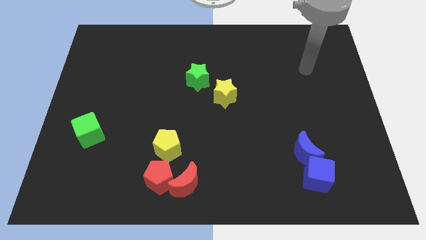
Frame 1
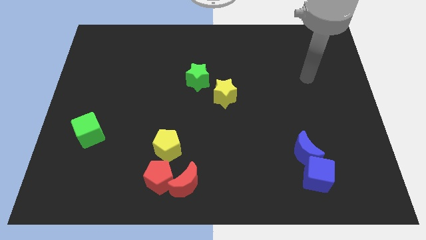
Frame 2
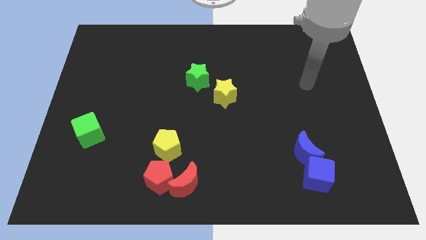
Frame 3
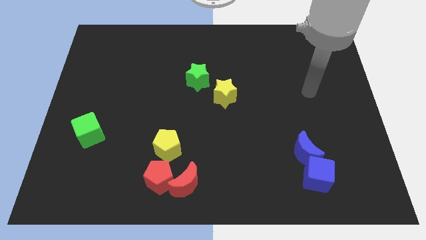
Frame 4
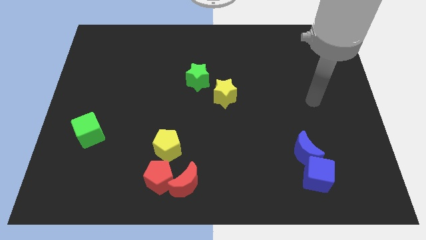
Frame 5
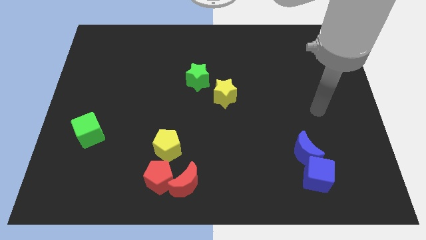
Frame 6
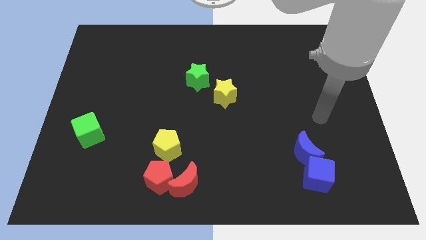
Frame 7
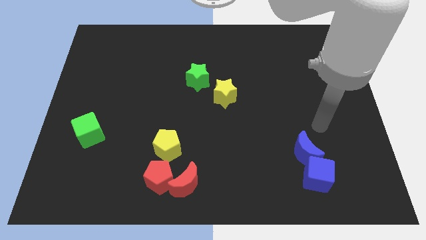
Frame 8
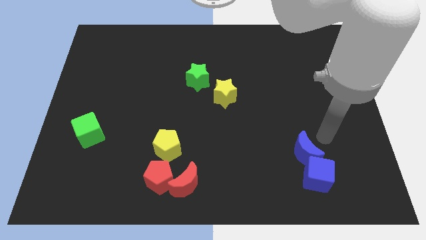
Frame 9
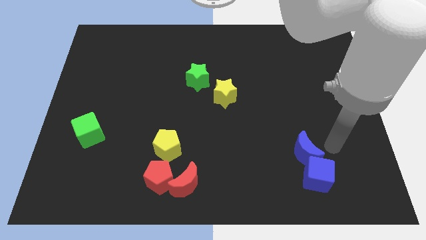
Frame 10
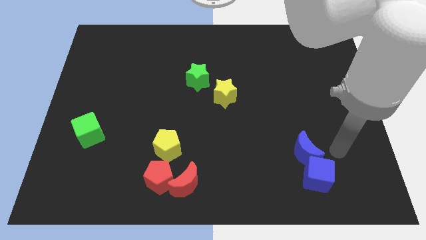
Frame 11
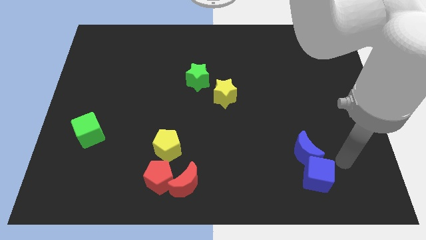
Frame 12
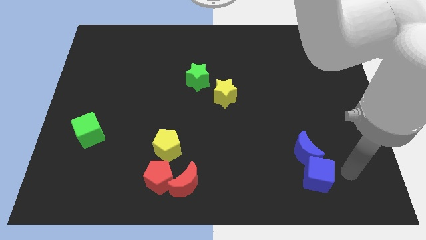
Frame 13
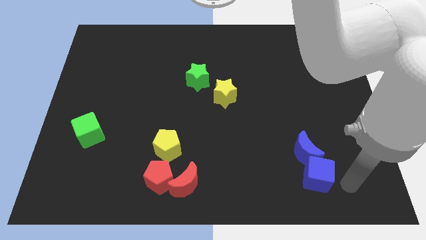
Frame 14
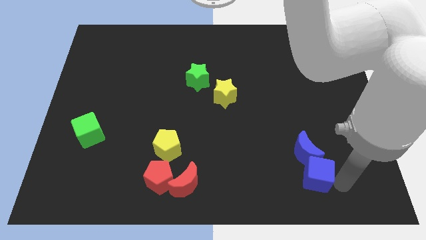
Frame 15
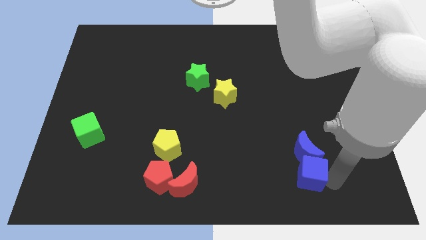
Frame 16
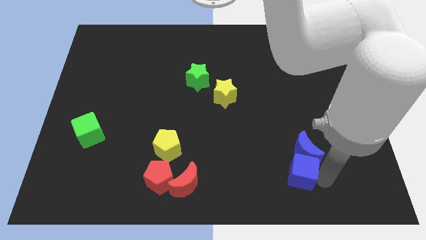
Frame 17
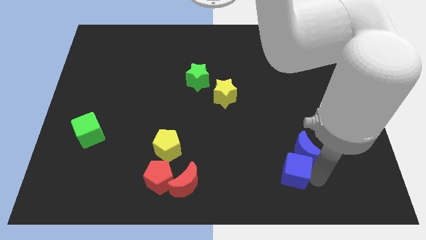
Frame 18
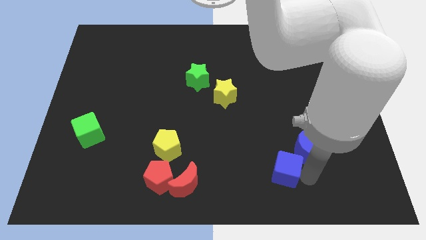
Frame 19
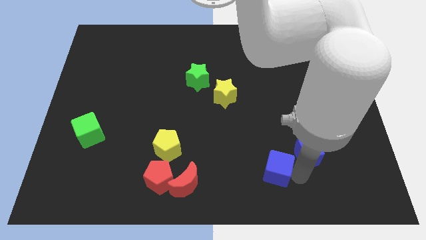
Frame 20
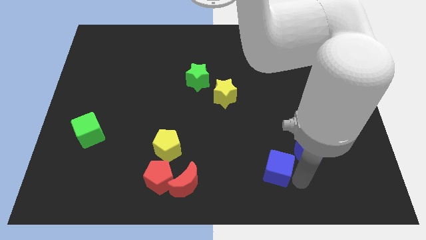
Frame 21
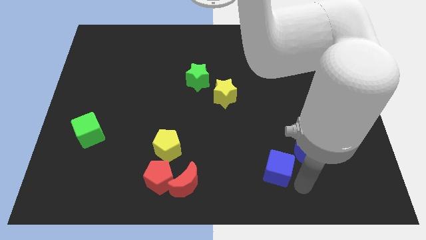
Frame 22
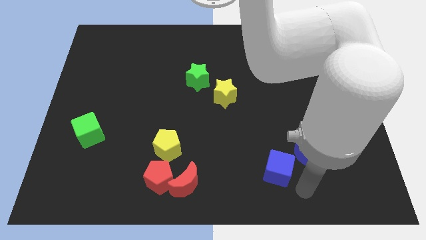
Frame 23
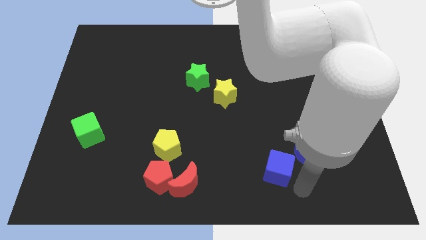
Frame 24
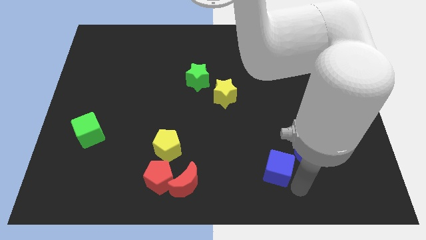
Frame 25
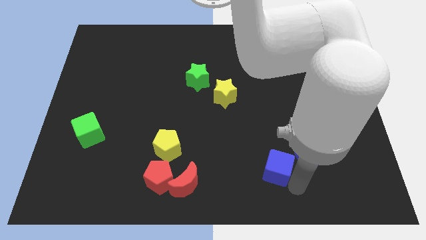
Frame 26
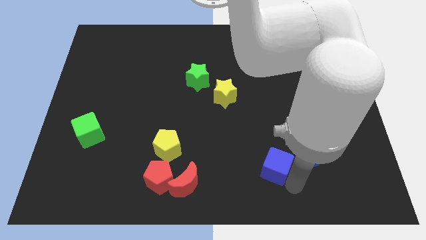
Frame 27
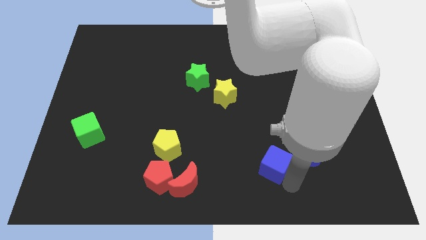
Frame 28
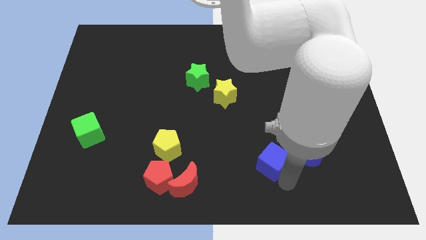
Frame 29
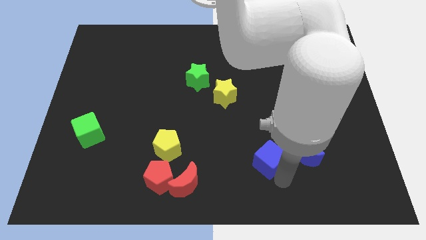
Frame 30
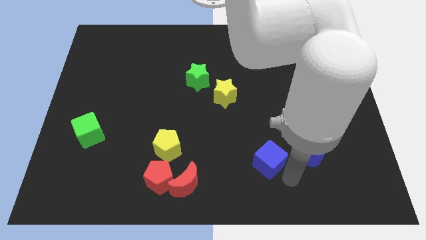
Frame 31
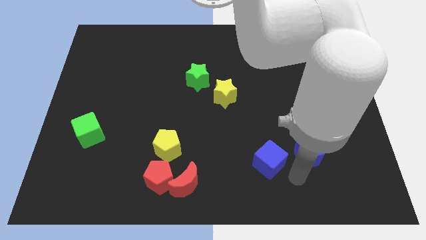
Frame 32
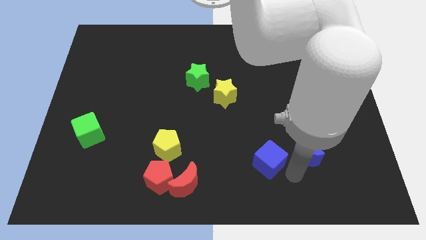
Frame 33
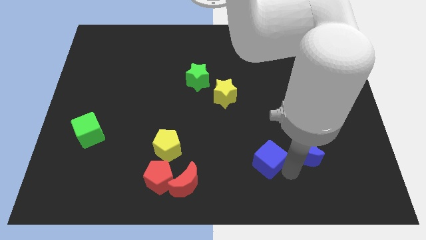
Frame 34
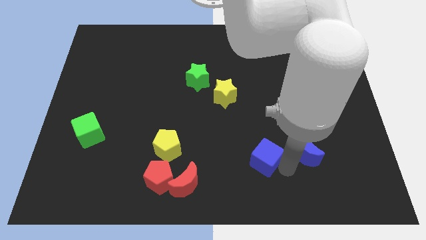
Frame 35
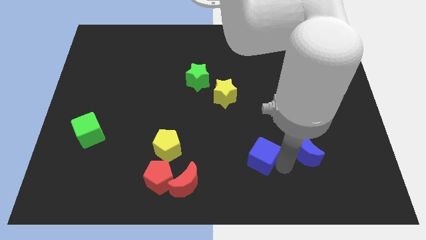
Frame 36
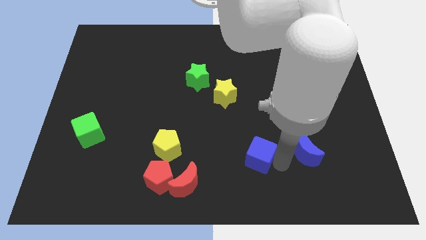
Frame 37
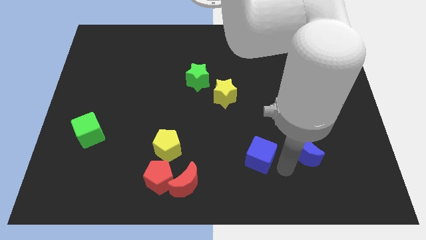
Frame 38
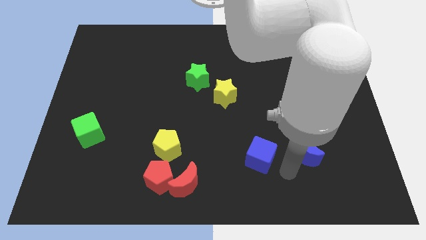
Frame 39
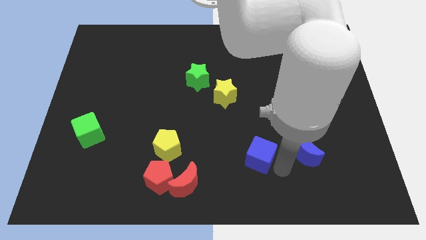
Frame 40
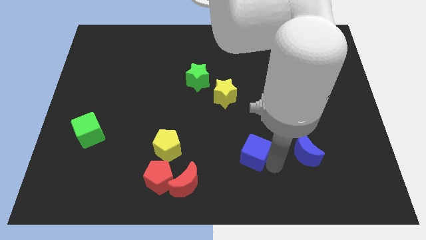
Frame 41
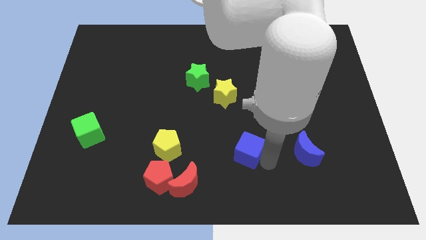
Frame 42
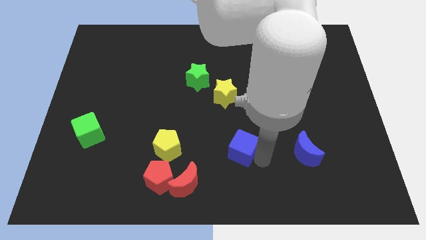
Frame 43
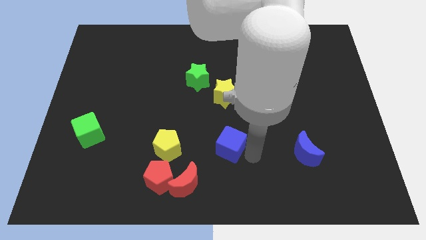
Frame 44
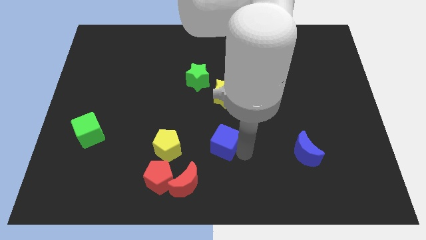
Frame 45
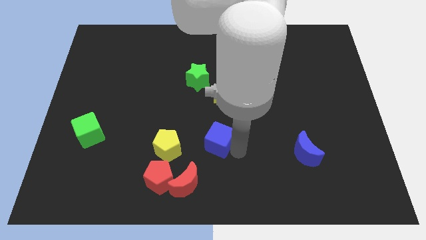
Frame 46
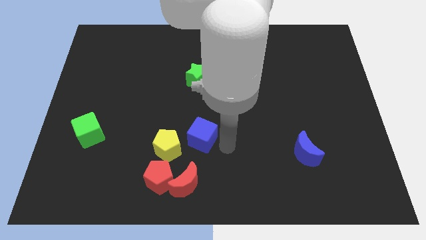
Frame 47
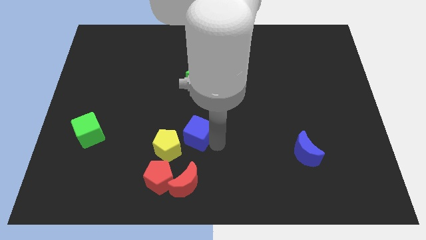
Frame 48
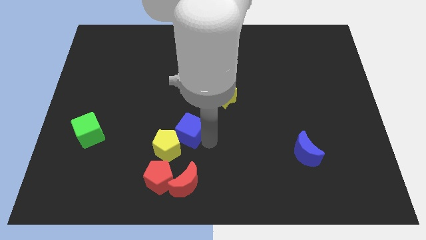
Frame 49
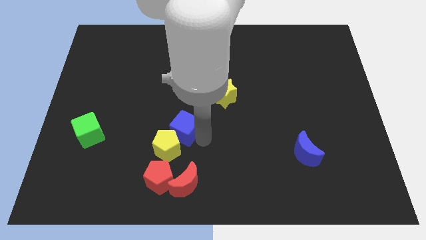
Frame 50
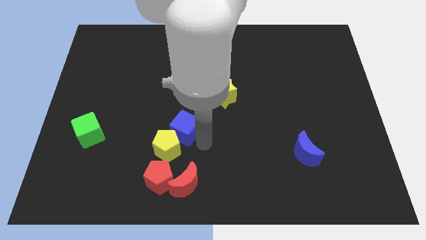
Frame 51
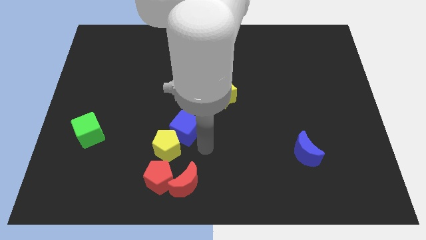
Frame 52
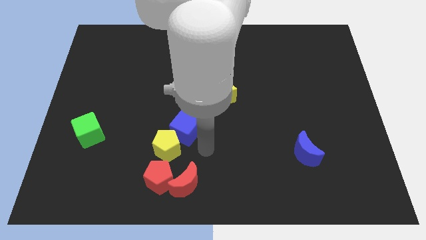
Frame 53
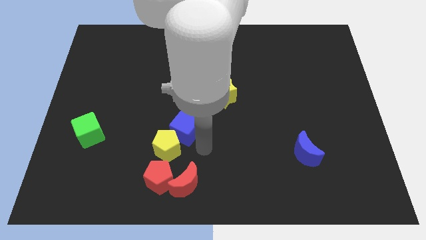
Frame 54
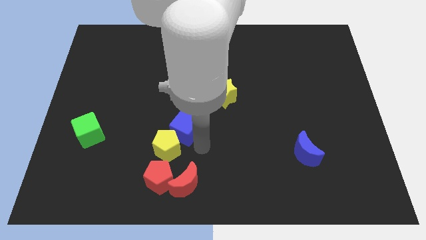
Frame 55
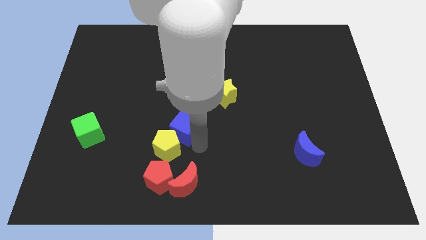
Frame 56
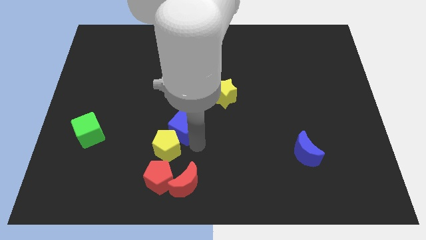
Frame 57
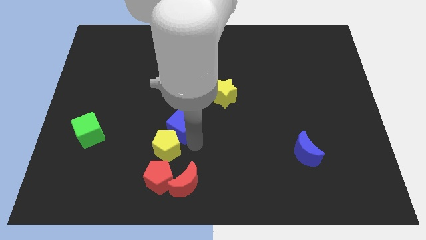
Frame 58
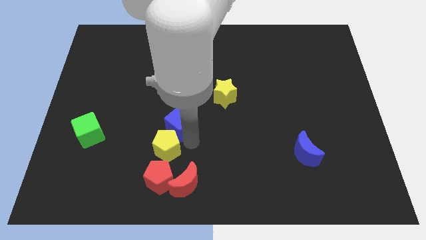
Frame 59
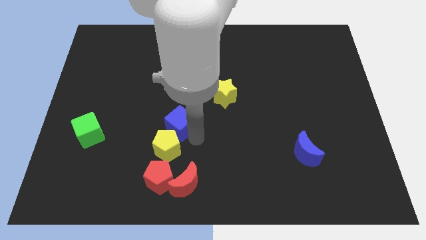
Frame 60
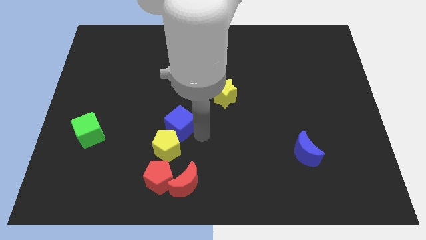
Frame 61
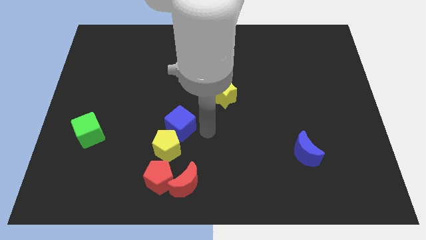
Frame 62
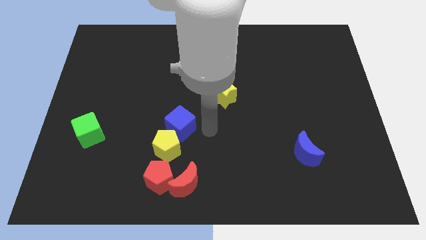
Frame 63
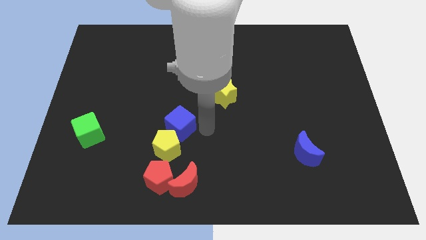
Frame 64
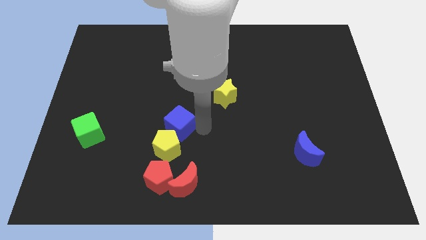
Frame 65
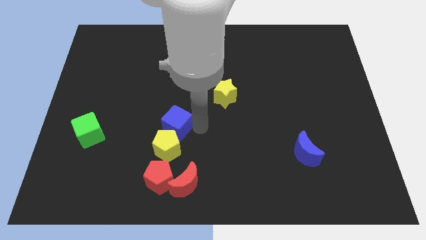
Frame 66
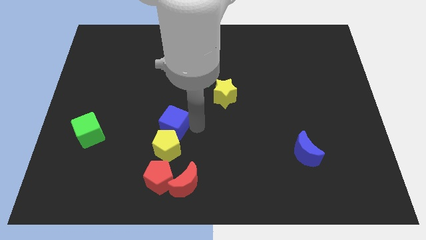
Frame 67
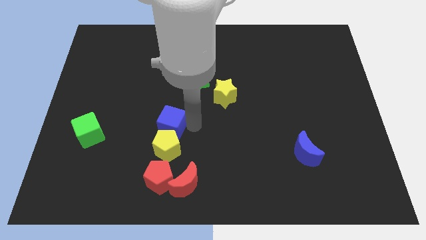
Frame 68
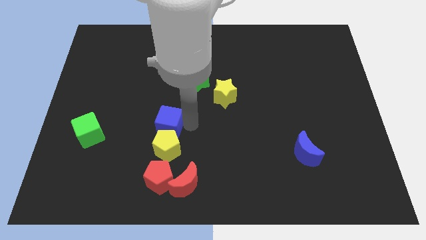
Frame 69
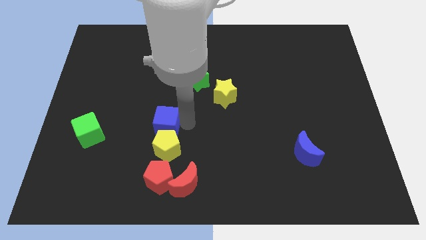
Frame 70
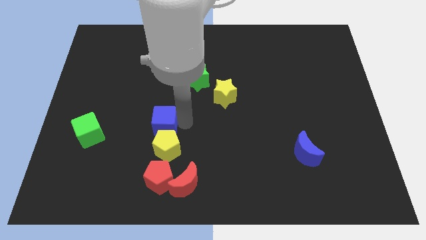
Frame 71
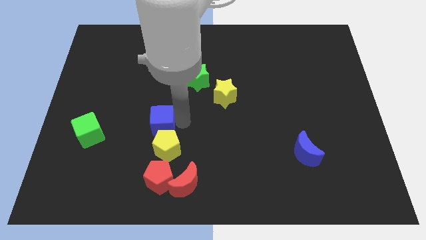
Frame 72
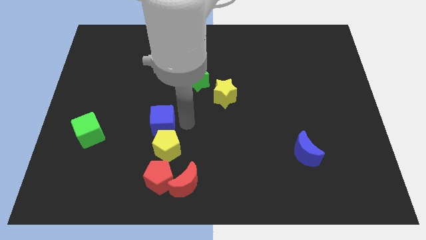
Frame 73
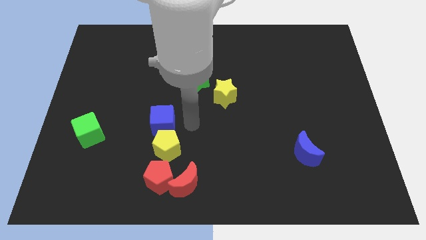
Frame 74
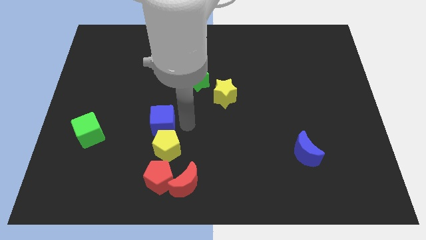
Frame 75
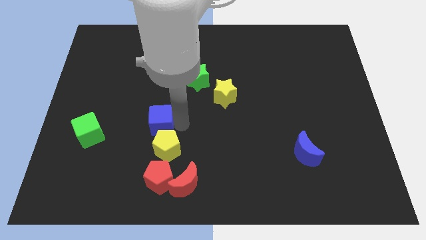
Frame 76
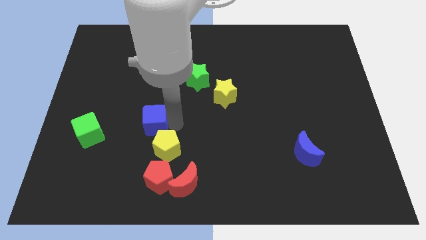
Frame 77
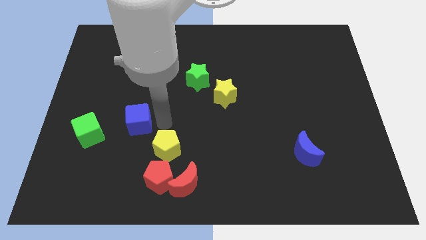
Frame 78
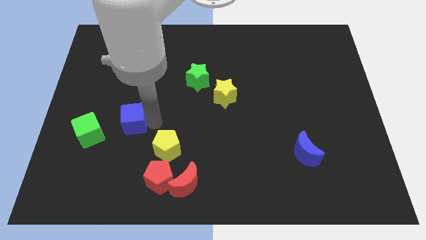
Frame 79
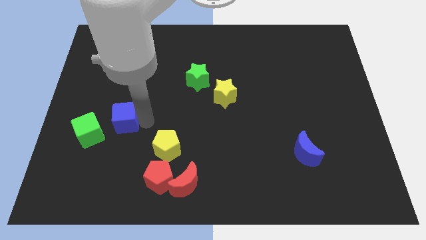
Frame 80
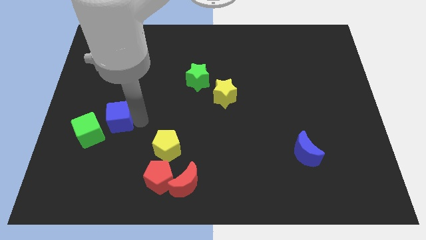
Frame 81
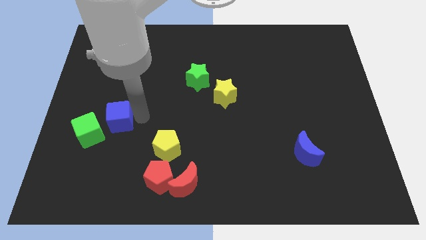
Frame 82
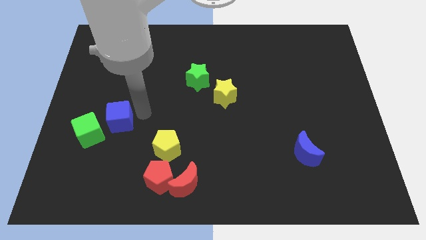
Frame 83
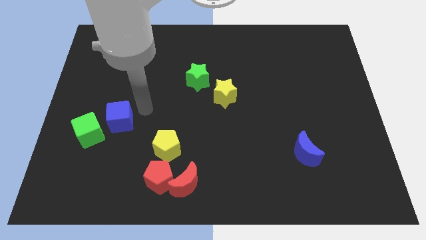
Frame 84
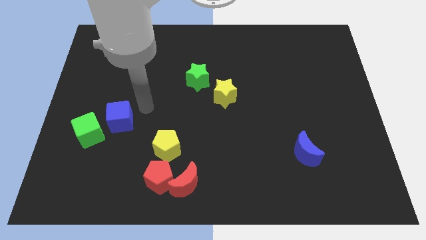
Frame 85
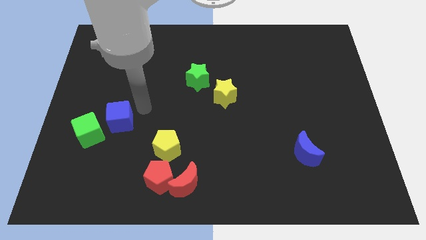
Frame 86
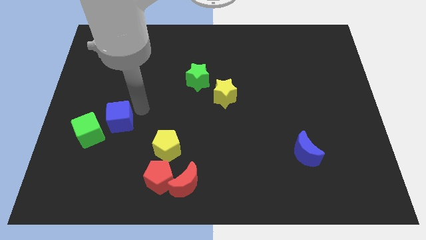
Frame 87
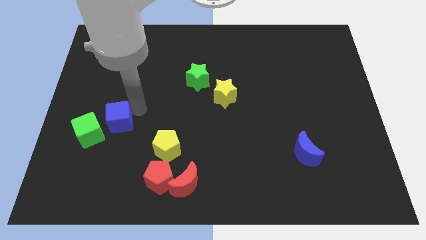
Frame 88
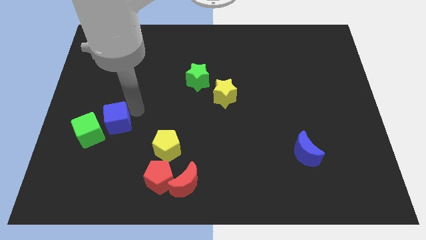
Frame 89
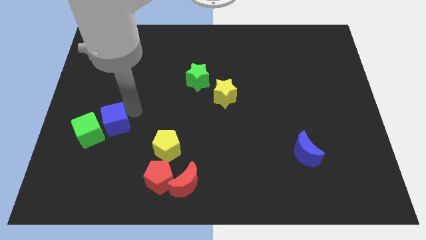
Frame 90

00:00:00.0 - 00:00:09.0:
slide the blue cube close to the green cube
